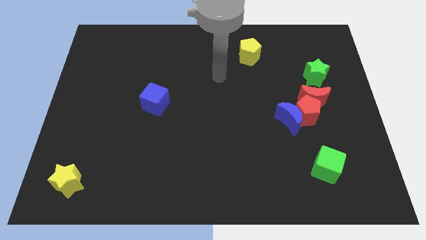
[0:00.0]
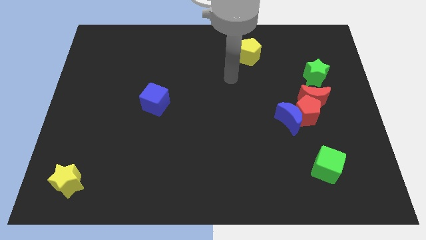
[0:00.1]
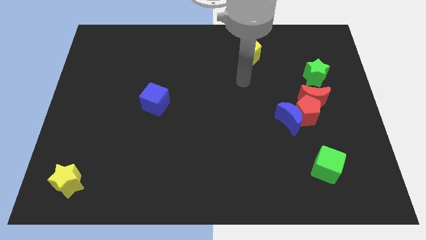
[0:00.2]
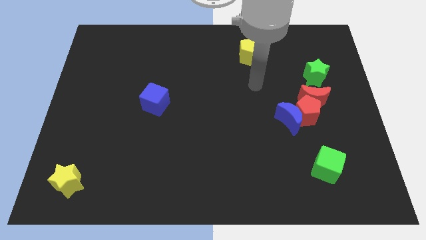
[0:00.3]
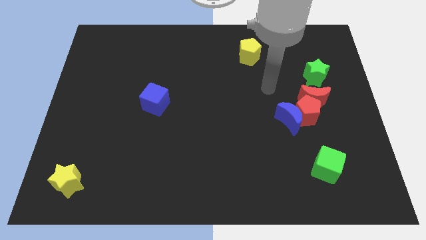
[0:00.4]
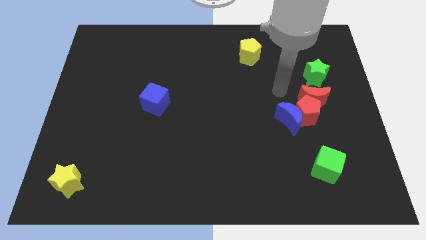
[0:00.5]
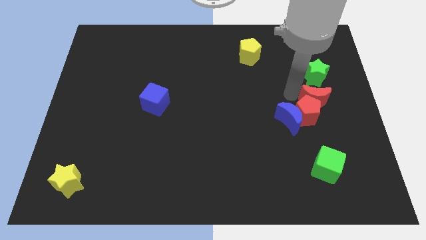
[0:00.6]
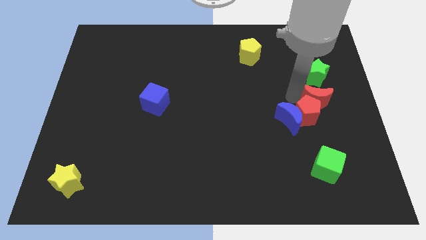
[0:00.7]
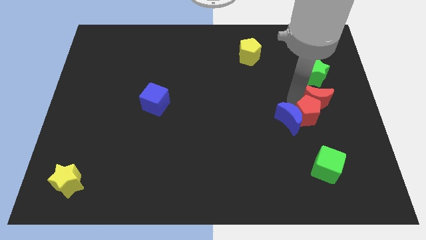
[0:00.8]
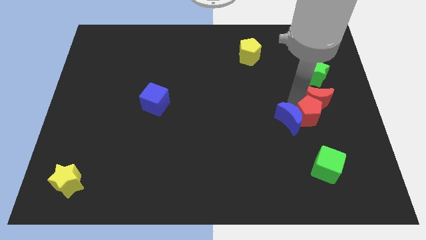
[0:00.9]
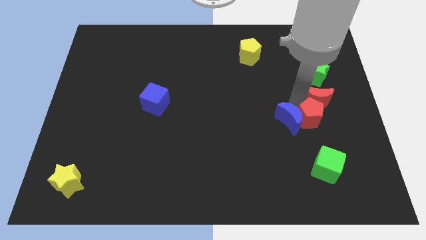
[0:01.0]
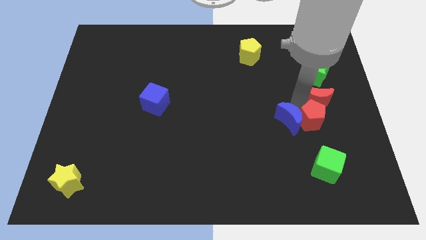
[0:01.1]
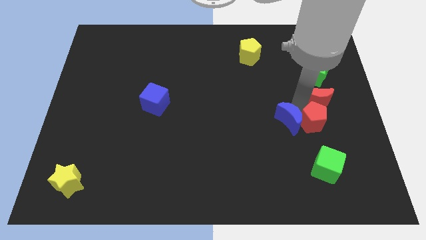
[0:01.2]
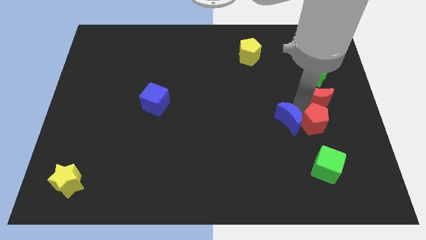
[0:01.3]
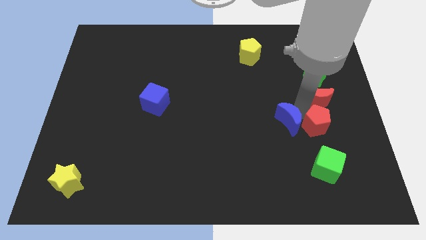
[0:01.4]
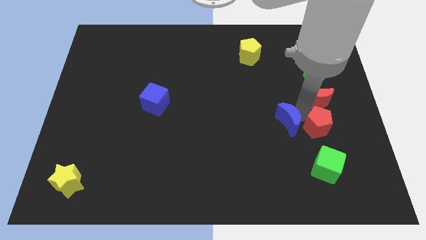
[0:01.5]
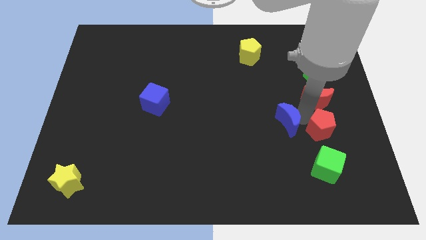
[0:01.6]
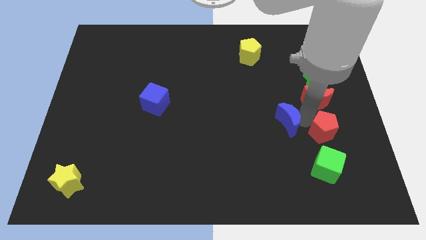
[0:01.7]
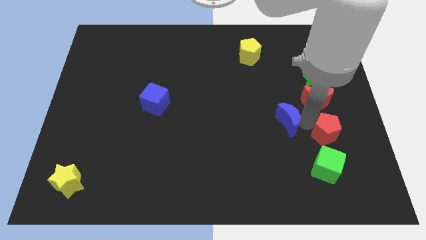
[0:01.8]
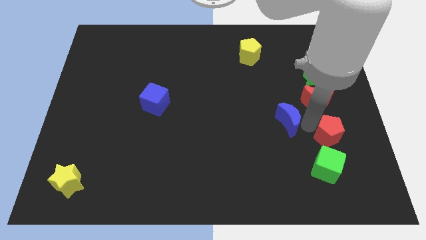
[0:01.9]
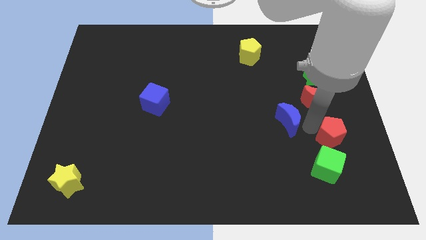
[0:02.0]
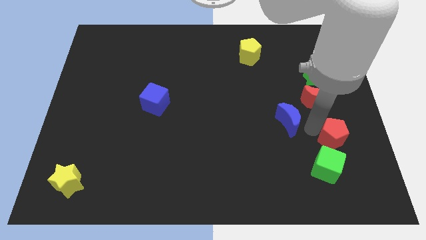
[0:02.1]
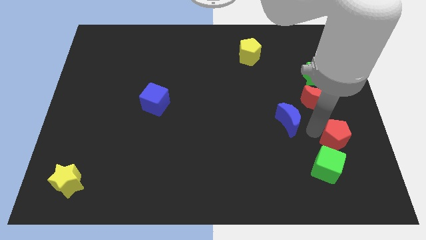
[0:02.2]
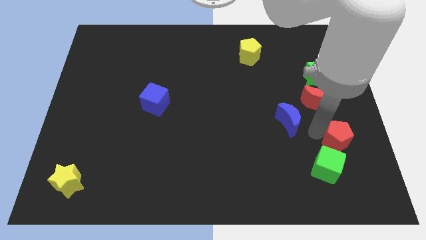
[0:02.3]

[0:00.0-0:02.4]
move the red pentagon away from the blue moon and red moon

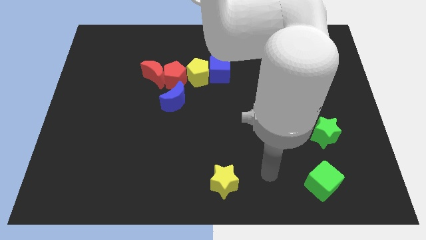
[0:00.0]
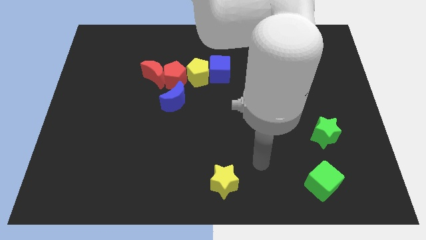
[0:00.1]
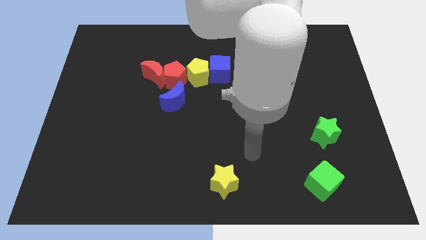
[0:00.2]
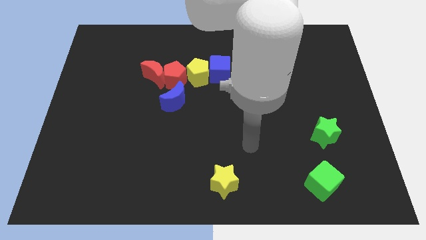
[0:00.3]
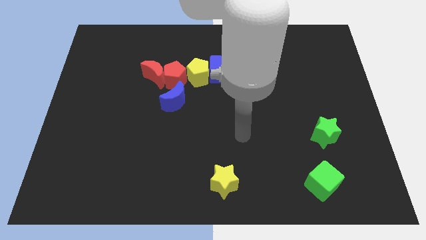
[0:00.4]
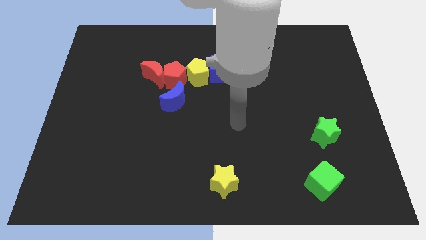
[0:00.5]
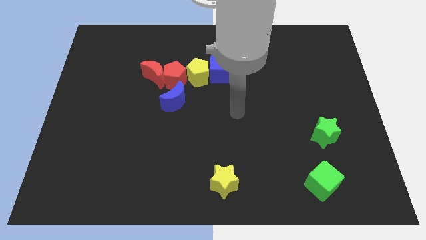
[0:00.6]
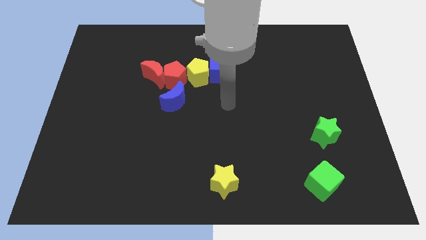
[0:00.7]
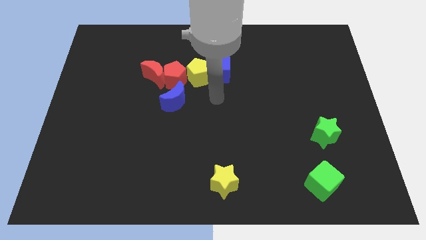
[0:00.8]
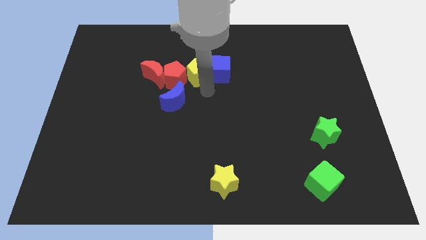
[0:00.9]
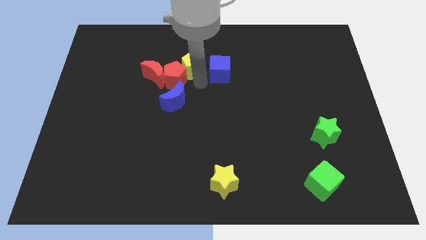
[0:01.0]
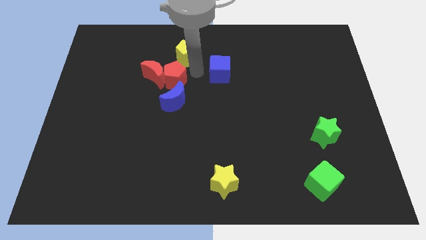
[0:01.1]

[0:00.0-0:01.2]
move the blue cube away from the yellow pentagon

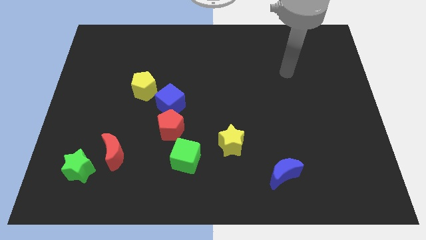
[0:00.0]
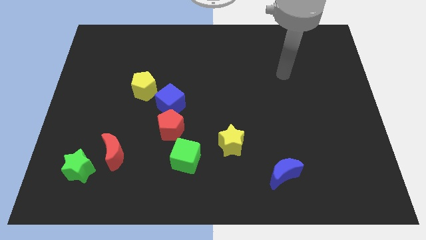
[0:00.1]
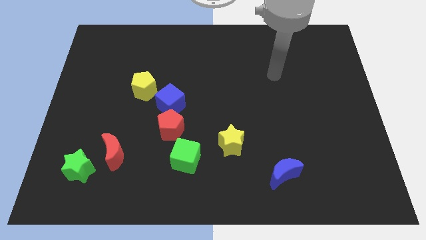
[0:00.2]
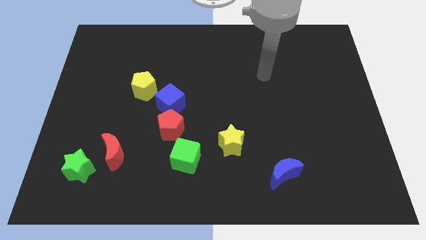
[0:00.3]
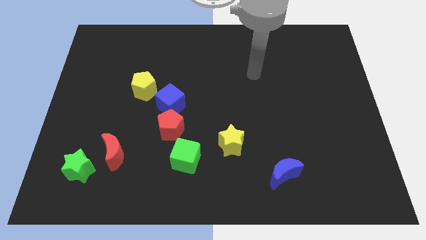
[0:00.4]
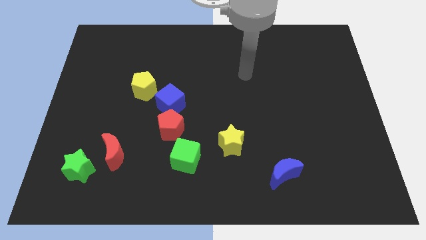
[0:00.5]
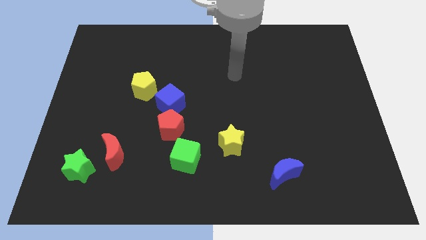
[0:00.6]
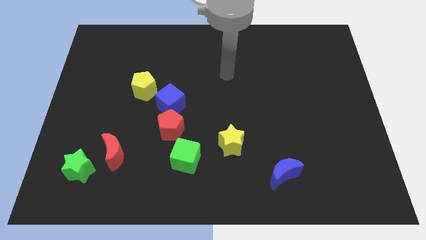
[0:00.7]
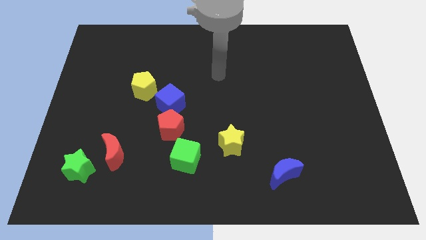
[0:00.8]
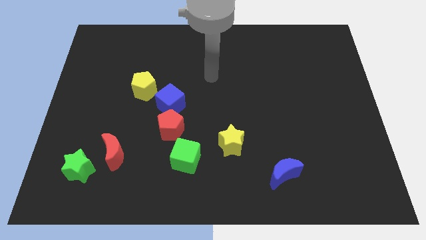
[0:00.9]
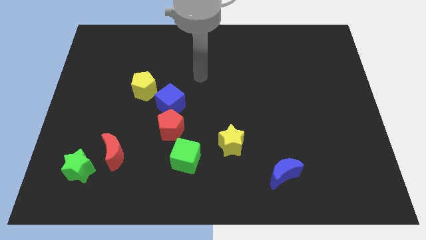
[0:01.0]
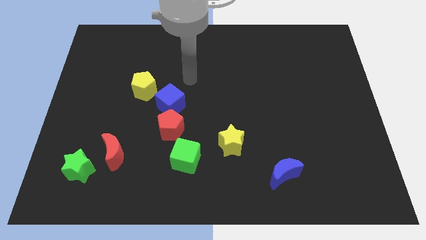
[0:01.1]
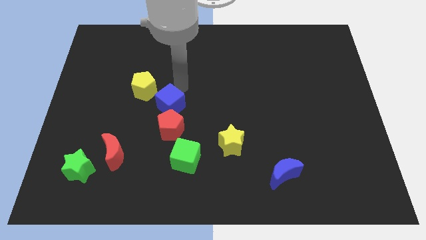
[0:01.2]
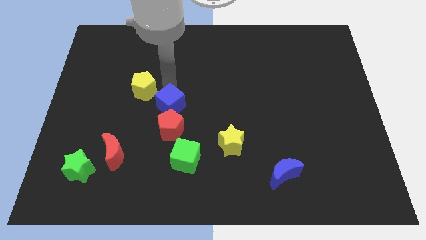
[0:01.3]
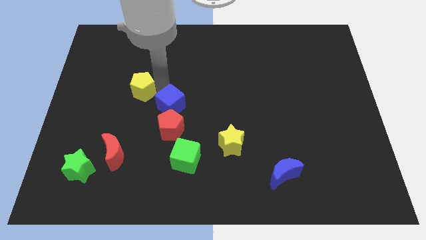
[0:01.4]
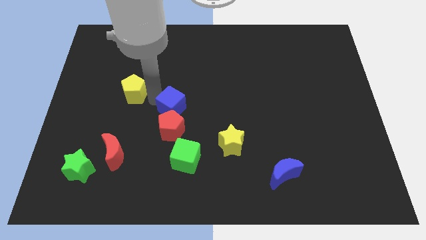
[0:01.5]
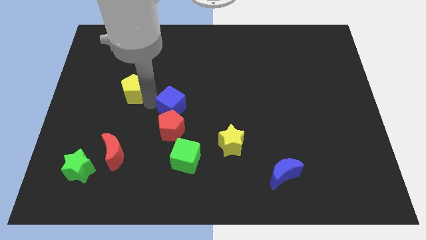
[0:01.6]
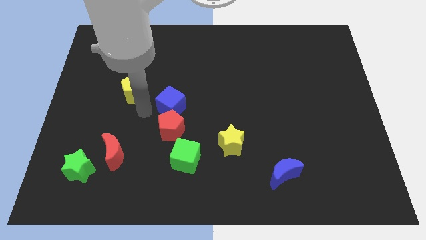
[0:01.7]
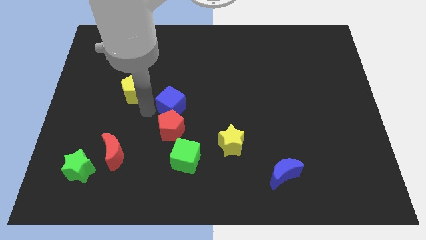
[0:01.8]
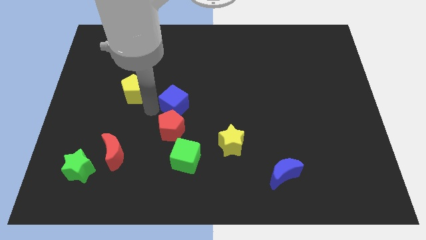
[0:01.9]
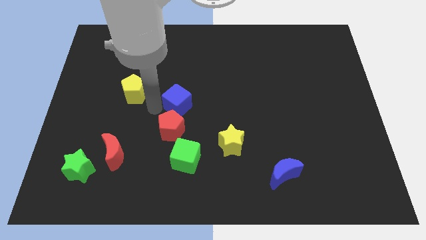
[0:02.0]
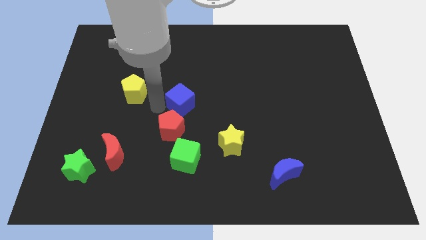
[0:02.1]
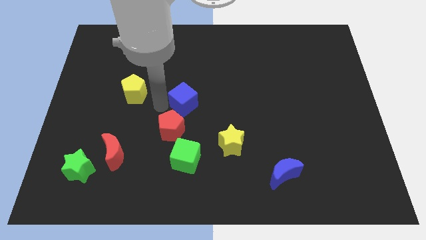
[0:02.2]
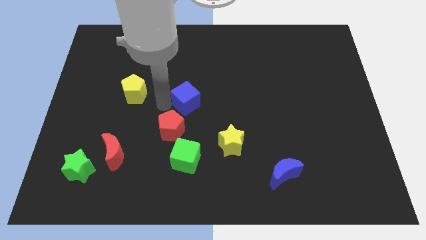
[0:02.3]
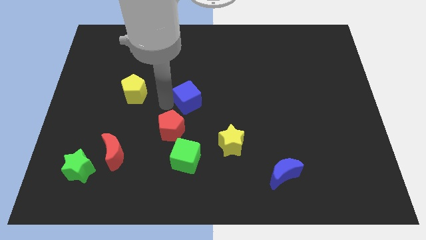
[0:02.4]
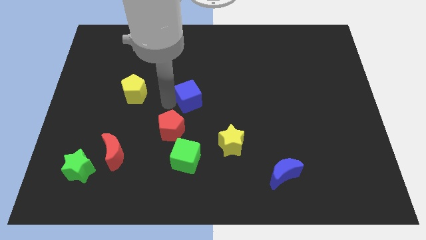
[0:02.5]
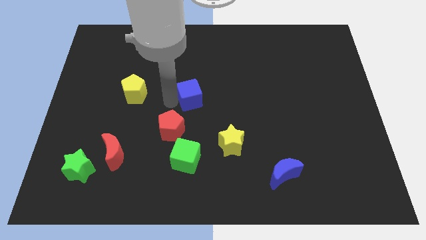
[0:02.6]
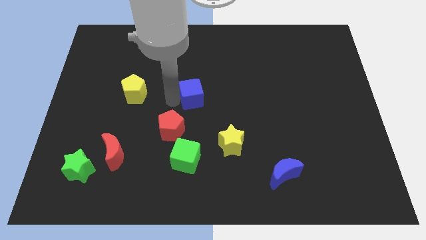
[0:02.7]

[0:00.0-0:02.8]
move the blue cube away from the red pentagon and yellow pentagon

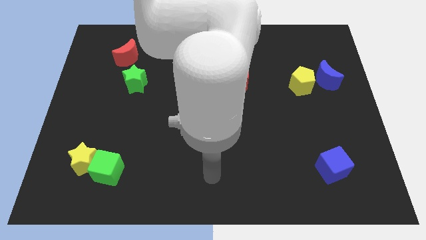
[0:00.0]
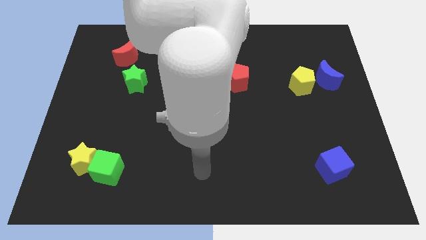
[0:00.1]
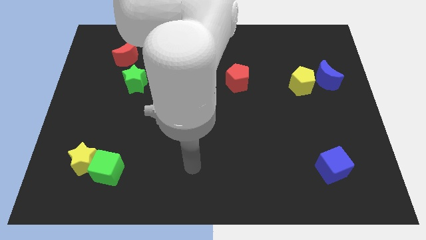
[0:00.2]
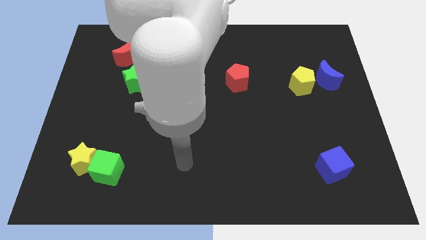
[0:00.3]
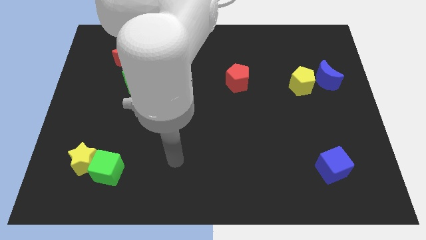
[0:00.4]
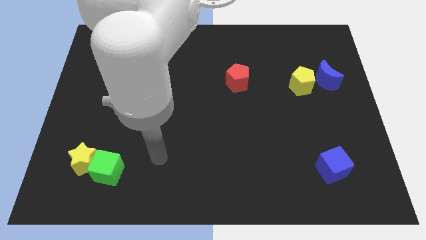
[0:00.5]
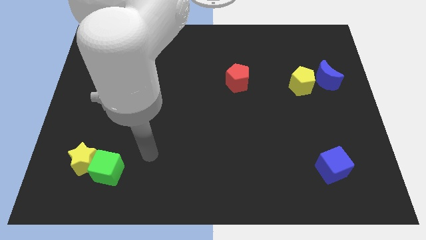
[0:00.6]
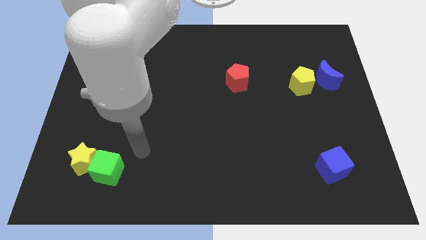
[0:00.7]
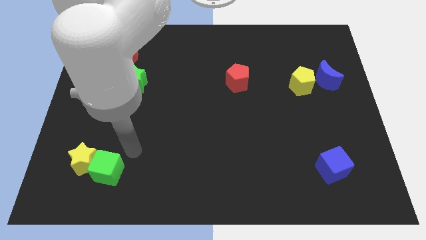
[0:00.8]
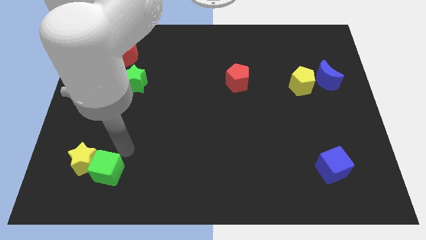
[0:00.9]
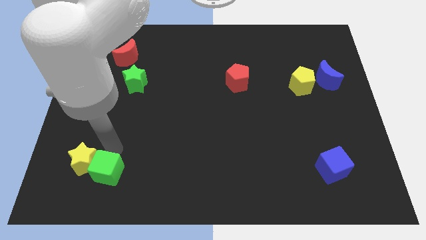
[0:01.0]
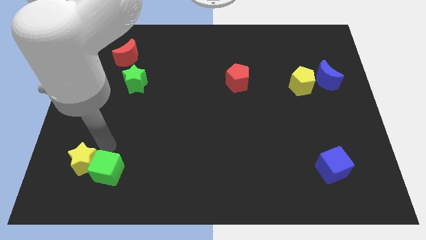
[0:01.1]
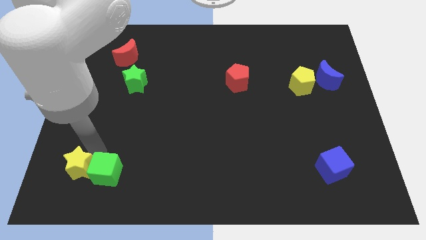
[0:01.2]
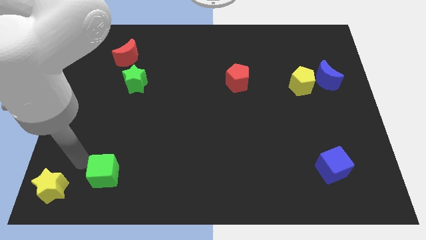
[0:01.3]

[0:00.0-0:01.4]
pull the green cube apart from the yellow star

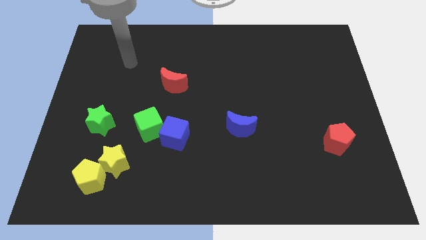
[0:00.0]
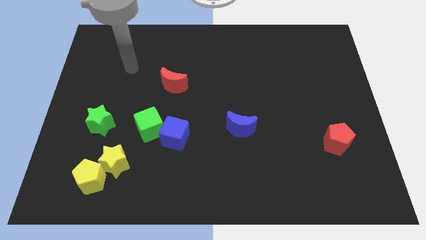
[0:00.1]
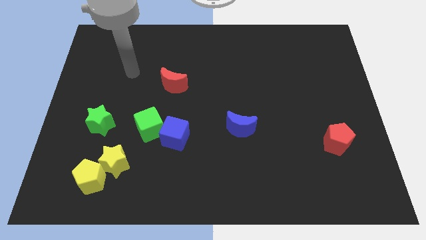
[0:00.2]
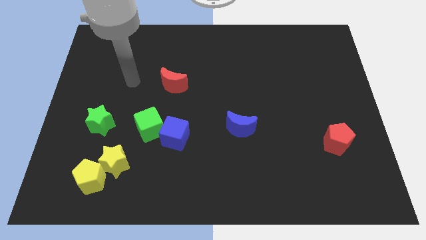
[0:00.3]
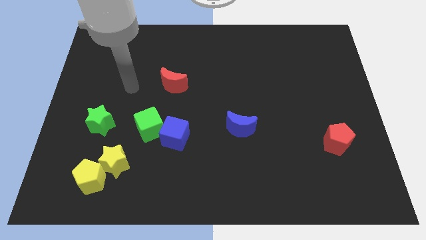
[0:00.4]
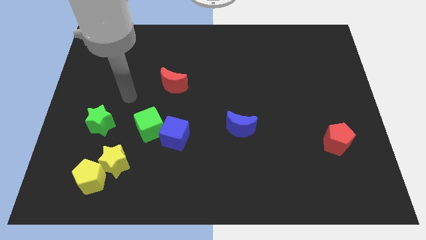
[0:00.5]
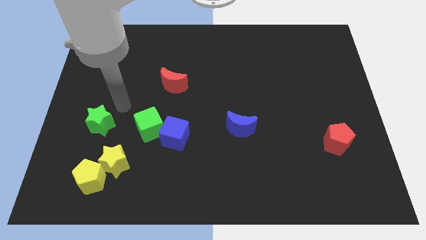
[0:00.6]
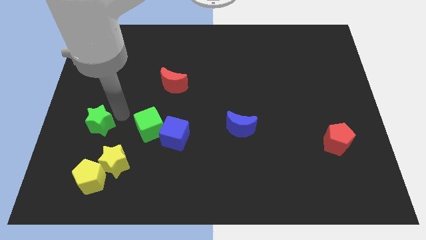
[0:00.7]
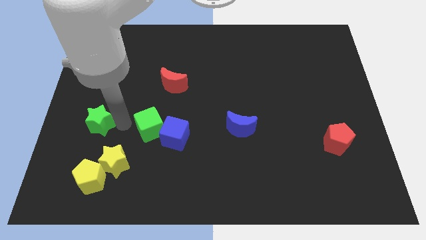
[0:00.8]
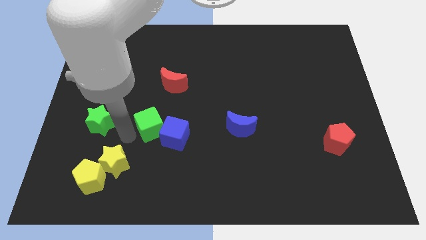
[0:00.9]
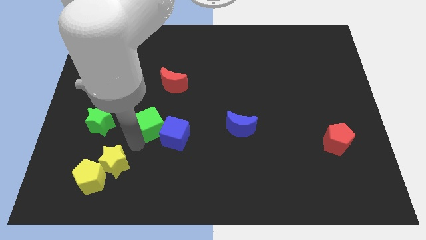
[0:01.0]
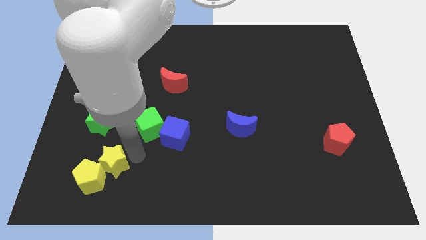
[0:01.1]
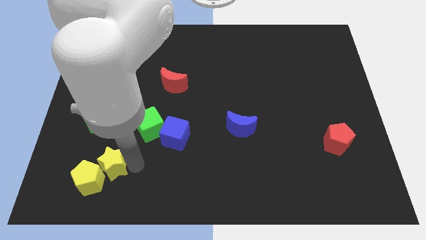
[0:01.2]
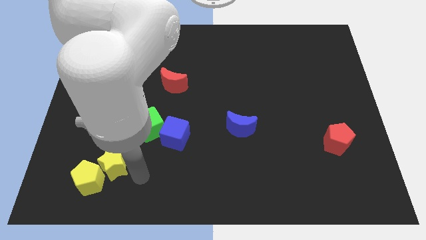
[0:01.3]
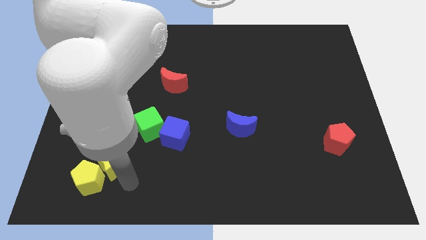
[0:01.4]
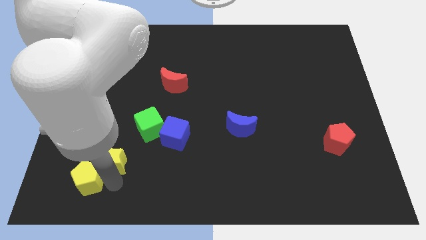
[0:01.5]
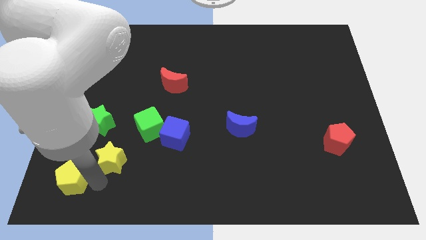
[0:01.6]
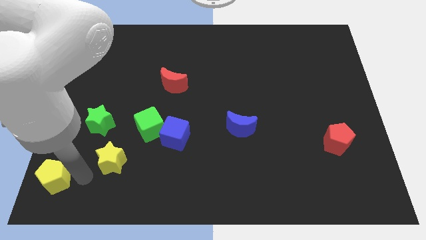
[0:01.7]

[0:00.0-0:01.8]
pull the yellow star apart from the yellow pentagon
